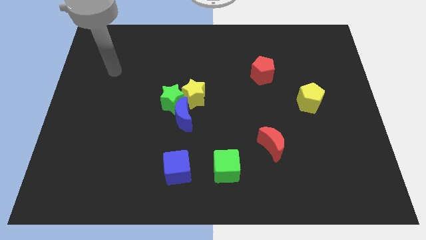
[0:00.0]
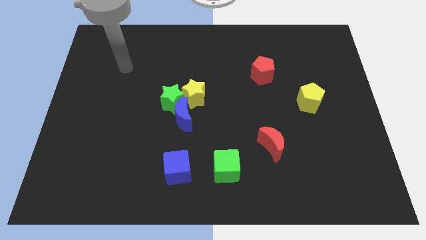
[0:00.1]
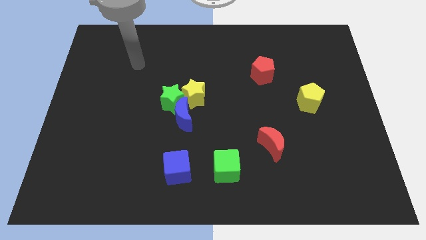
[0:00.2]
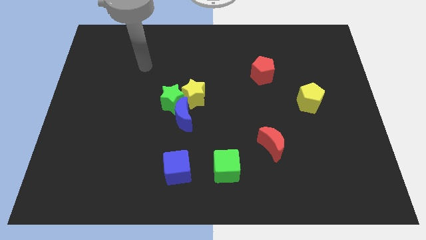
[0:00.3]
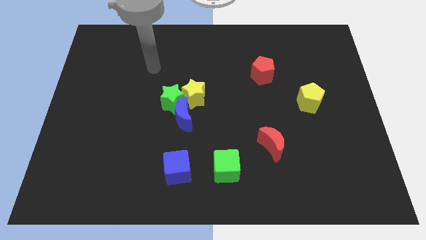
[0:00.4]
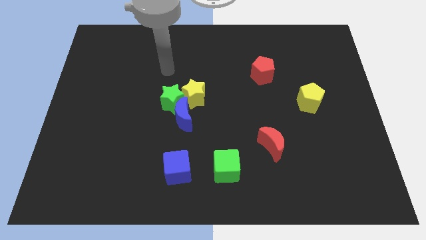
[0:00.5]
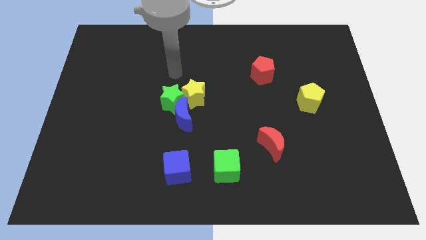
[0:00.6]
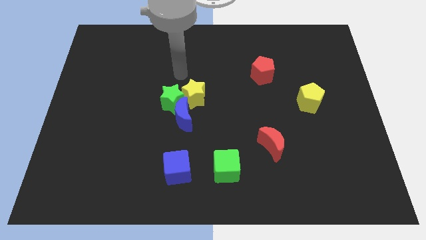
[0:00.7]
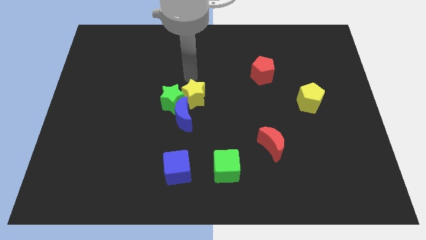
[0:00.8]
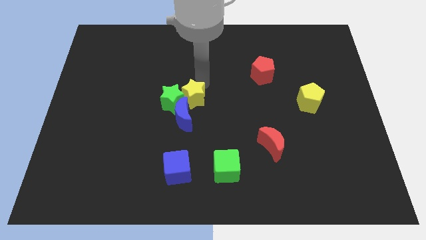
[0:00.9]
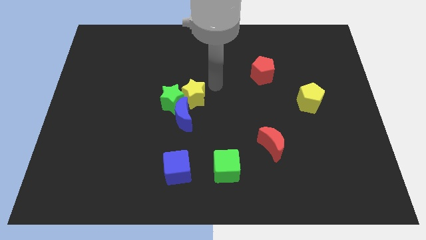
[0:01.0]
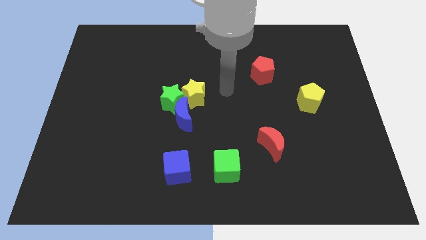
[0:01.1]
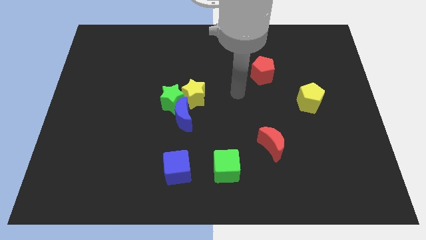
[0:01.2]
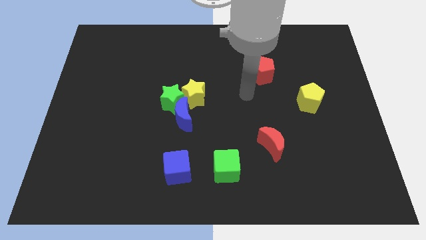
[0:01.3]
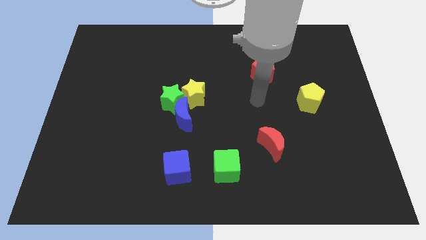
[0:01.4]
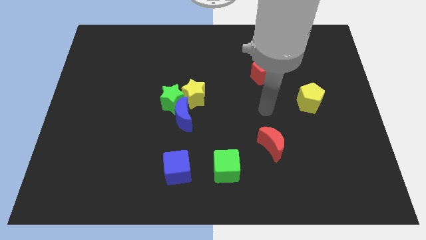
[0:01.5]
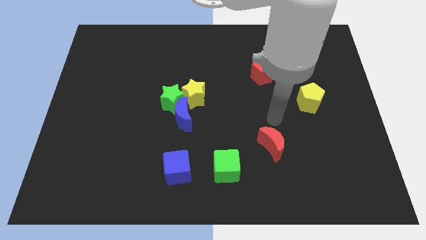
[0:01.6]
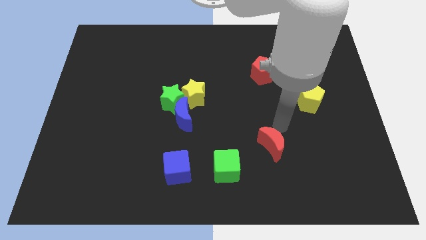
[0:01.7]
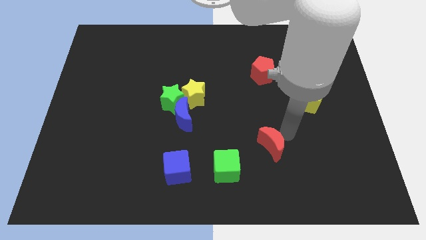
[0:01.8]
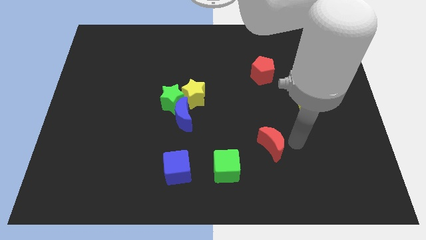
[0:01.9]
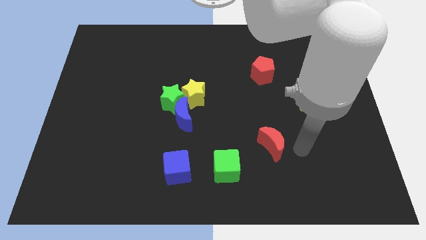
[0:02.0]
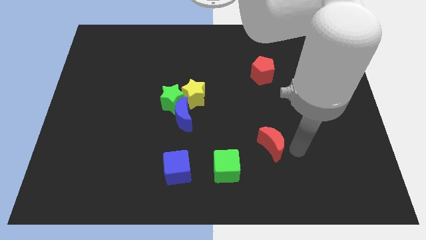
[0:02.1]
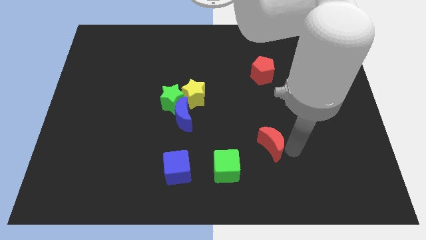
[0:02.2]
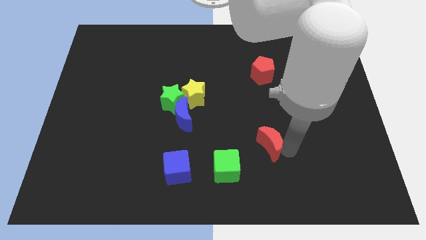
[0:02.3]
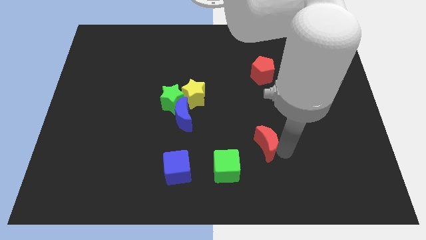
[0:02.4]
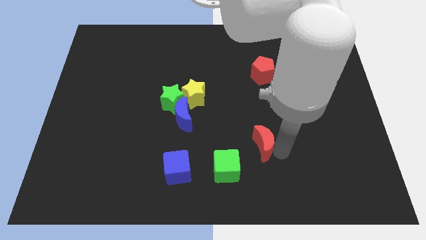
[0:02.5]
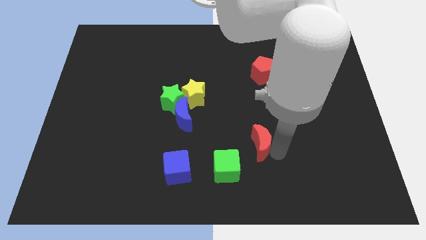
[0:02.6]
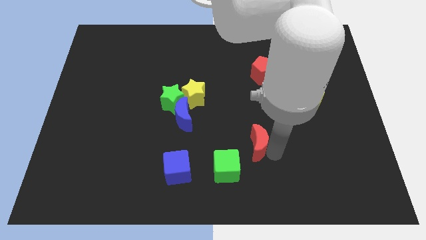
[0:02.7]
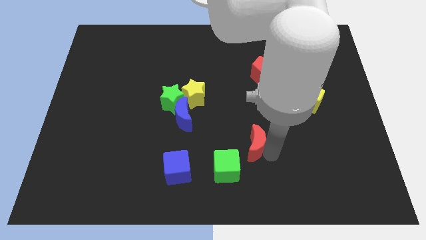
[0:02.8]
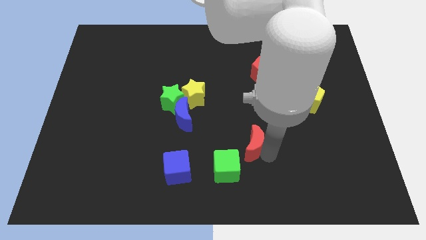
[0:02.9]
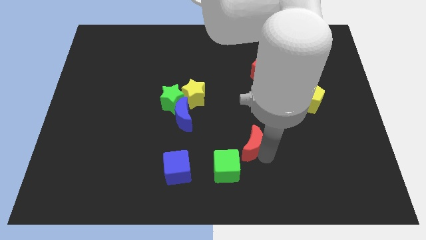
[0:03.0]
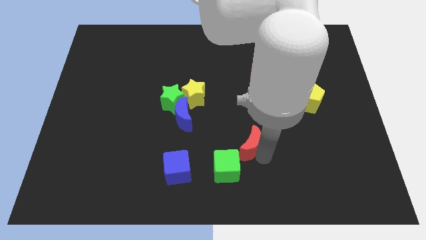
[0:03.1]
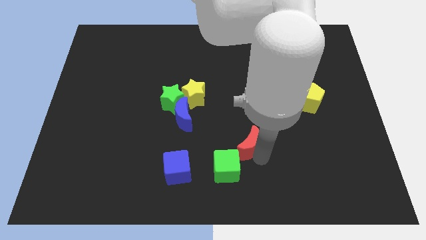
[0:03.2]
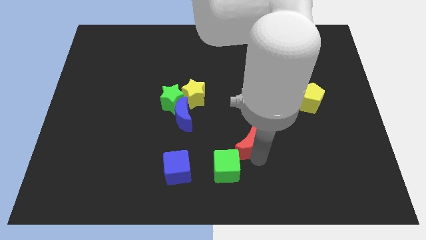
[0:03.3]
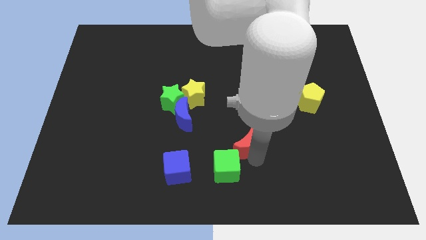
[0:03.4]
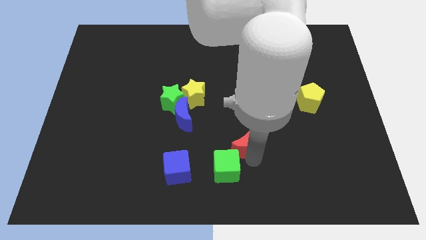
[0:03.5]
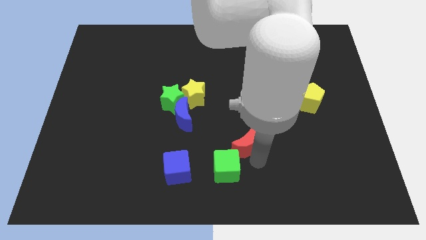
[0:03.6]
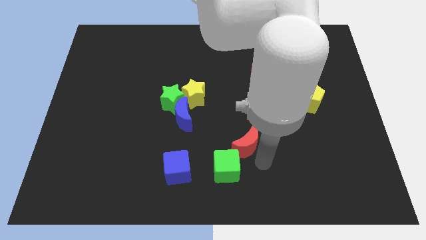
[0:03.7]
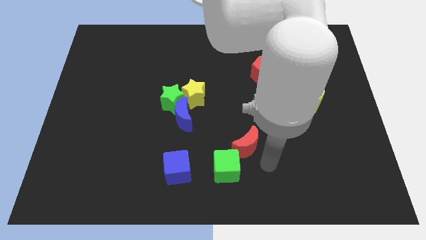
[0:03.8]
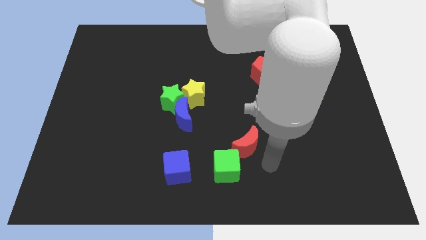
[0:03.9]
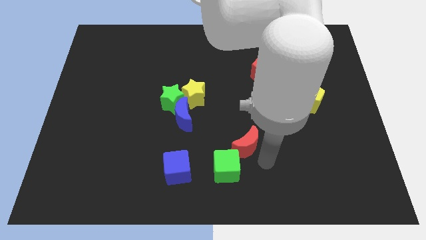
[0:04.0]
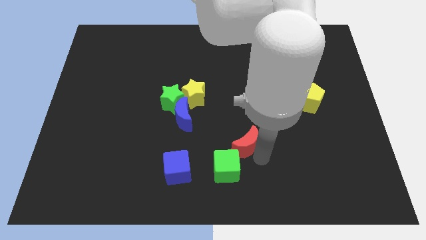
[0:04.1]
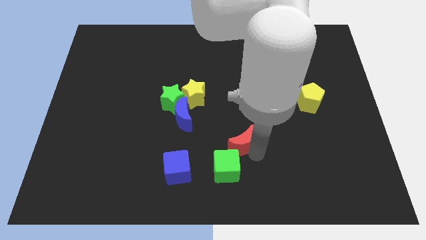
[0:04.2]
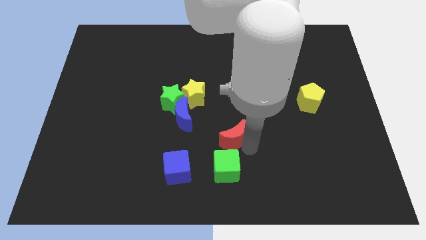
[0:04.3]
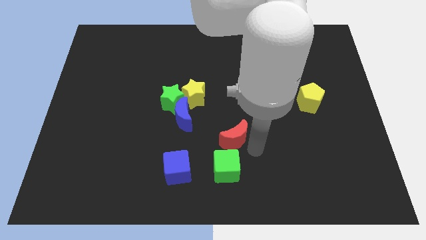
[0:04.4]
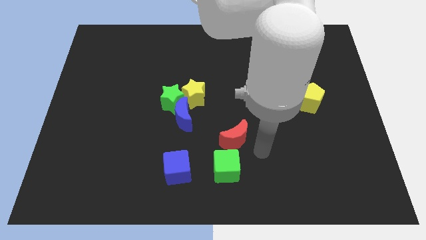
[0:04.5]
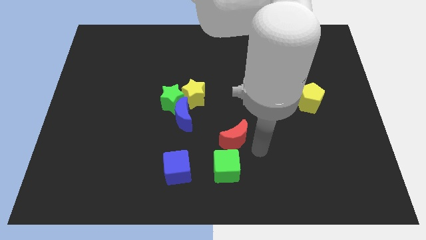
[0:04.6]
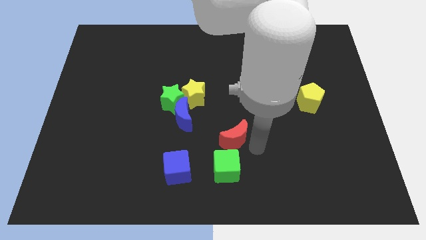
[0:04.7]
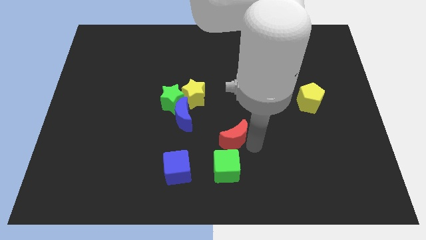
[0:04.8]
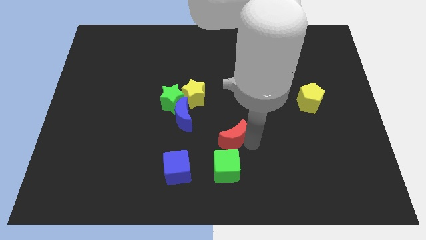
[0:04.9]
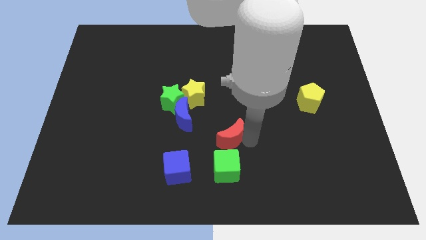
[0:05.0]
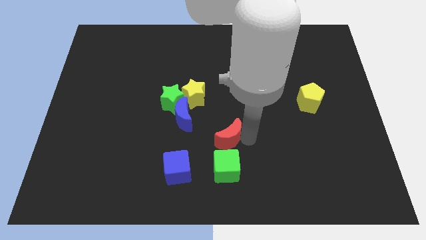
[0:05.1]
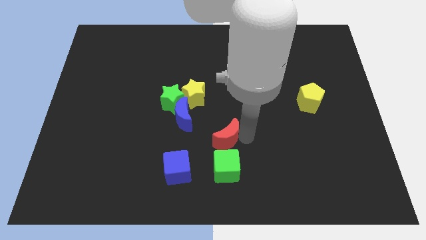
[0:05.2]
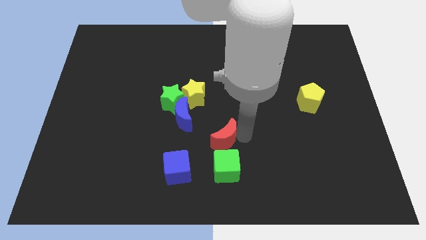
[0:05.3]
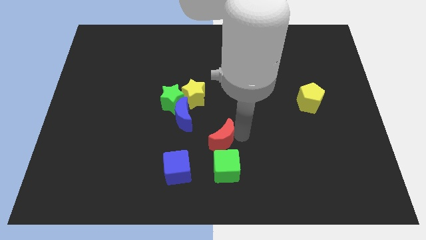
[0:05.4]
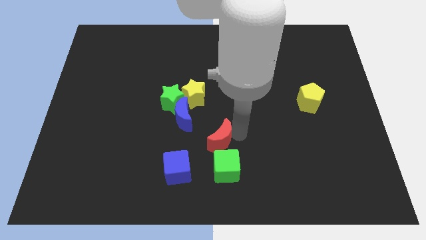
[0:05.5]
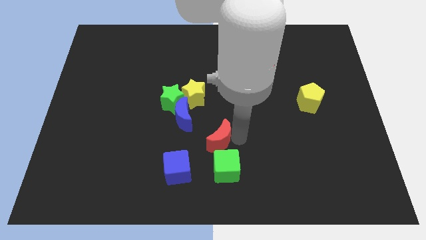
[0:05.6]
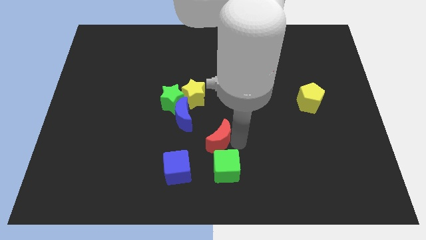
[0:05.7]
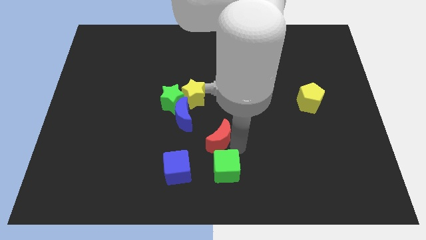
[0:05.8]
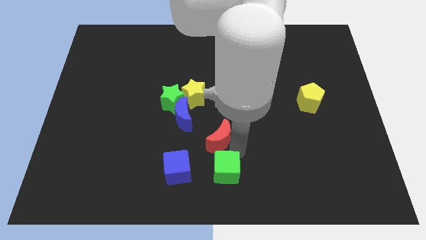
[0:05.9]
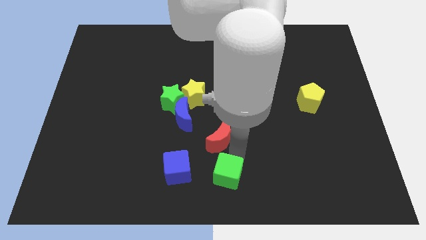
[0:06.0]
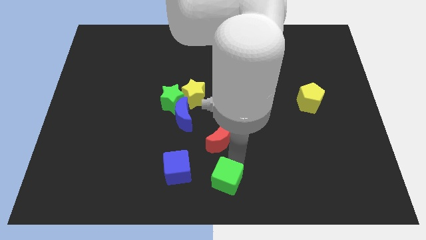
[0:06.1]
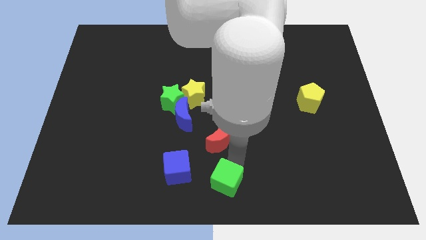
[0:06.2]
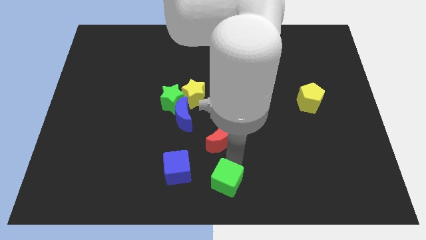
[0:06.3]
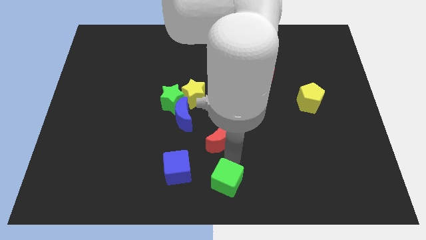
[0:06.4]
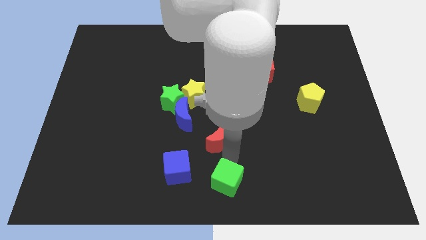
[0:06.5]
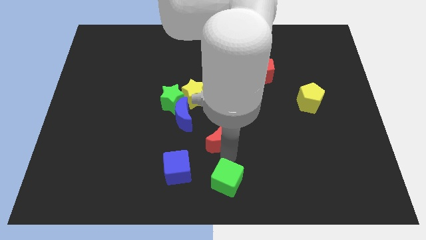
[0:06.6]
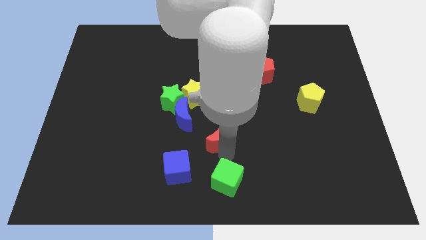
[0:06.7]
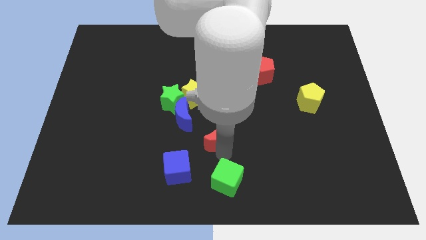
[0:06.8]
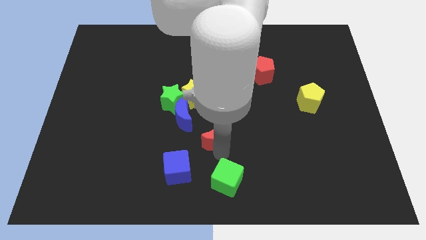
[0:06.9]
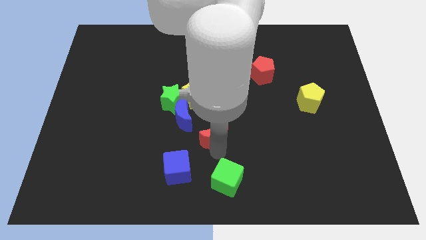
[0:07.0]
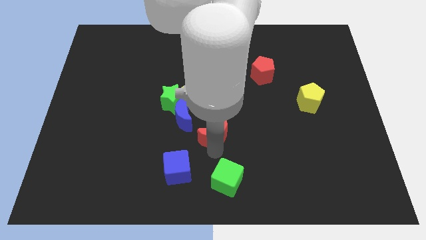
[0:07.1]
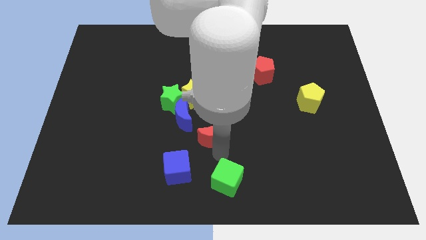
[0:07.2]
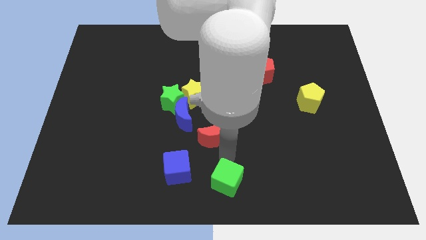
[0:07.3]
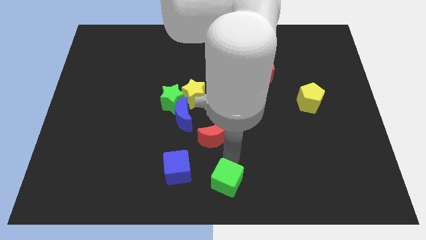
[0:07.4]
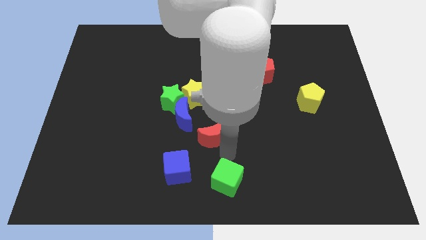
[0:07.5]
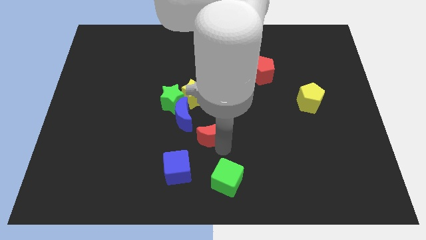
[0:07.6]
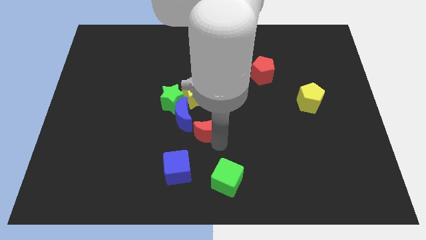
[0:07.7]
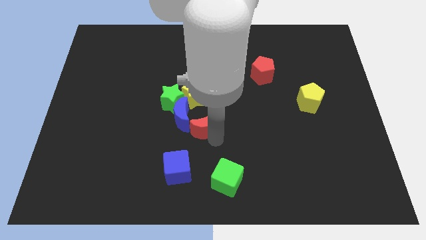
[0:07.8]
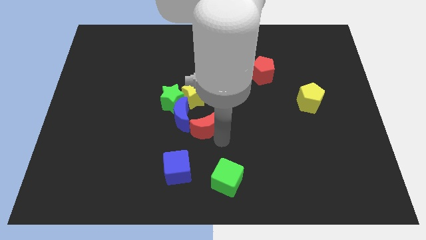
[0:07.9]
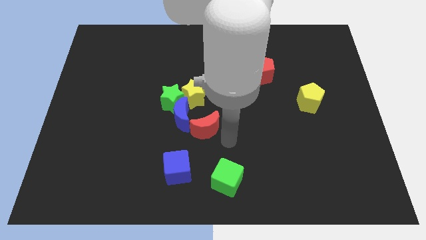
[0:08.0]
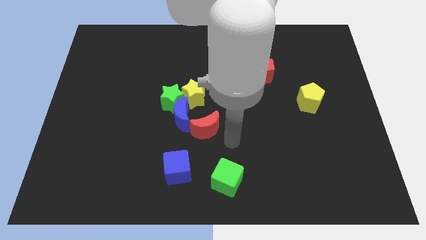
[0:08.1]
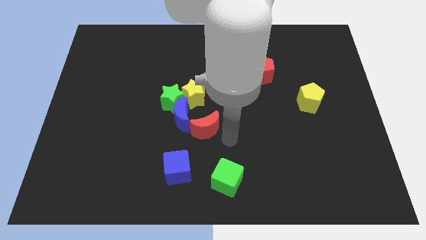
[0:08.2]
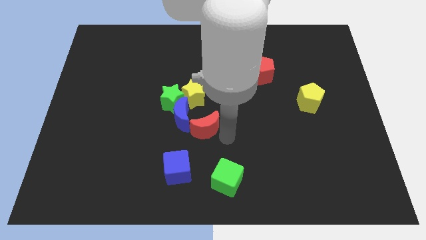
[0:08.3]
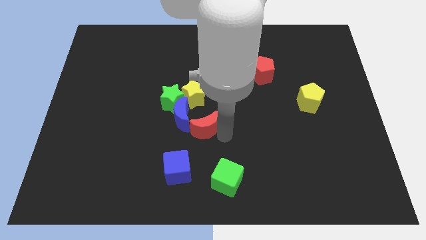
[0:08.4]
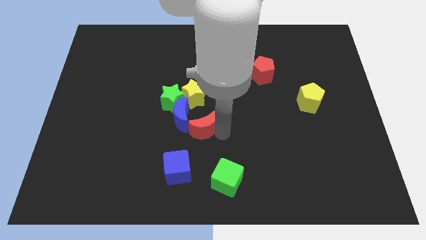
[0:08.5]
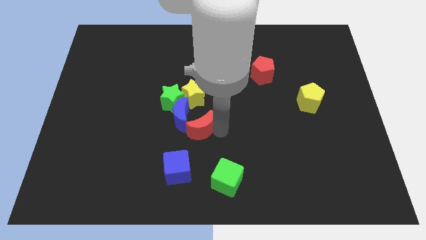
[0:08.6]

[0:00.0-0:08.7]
move the red moon close to the blue moon
